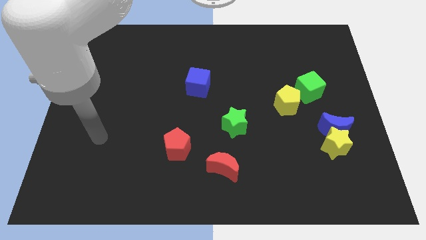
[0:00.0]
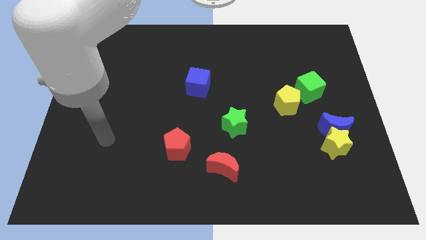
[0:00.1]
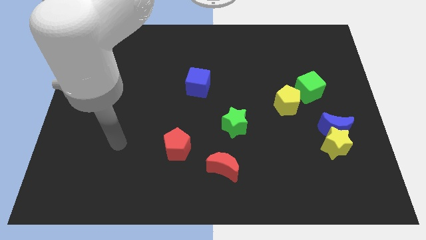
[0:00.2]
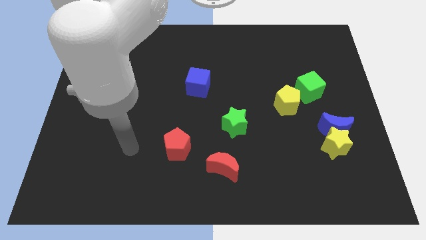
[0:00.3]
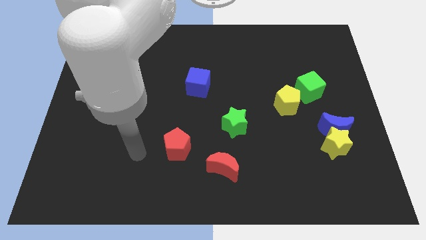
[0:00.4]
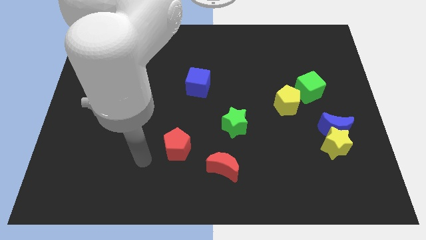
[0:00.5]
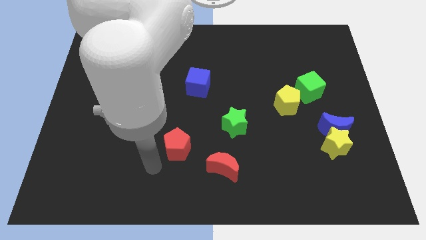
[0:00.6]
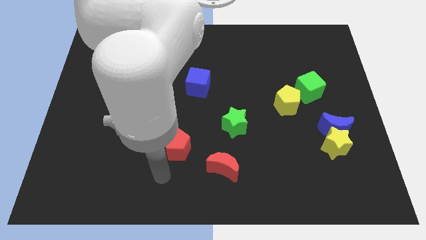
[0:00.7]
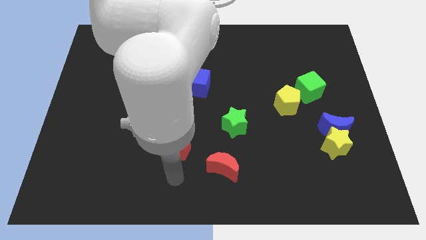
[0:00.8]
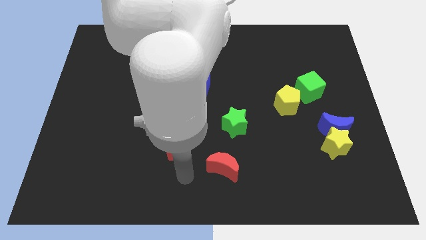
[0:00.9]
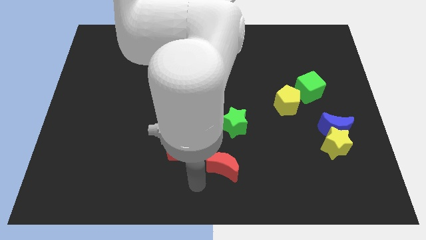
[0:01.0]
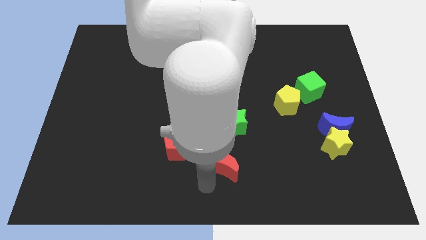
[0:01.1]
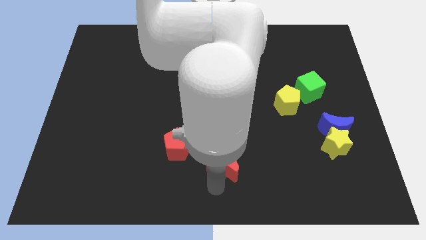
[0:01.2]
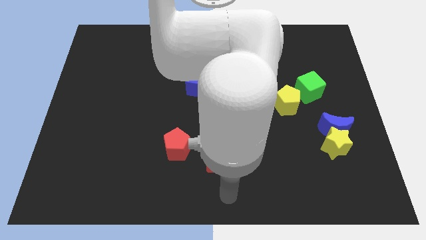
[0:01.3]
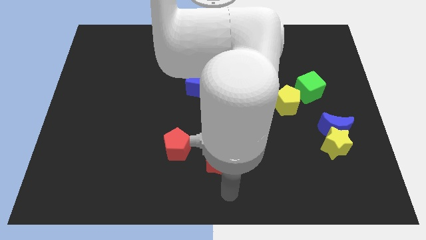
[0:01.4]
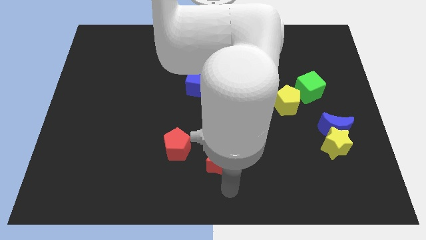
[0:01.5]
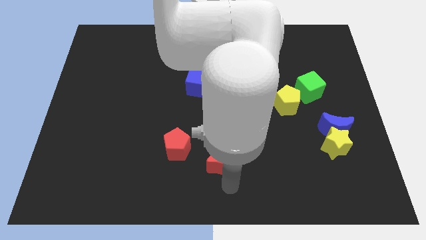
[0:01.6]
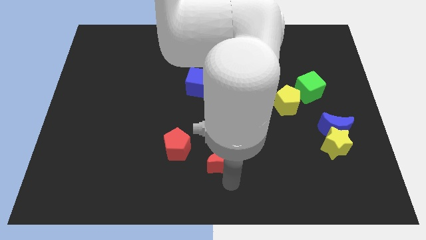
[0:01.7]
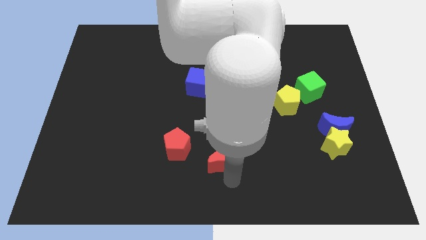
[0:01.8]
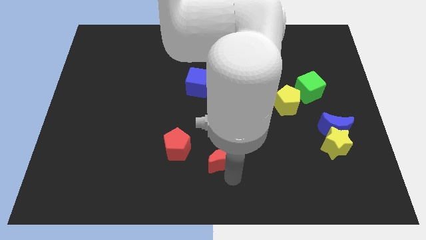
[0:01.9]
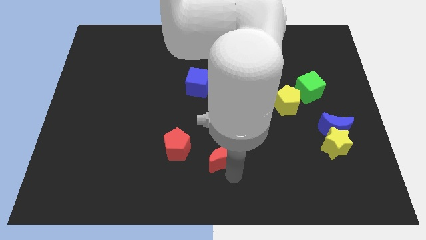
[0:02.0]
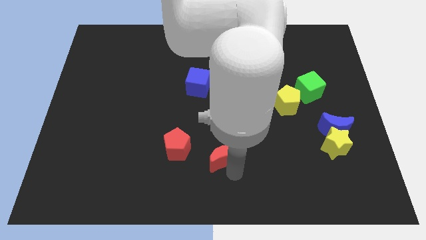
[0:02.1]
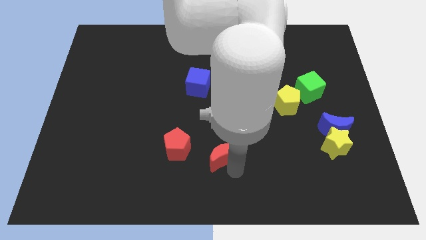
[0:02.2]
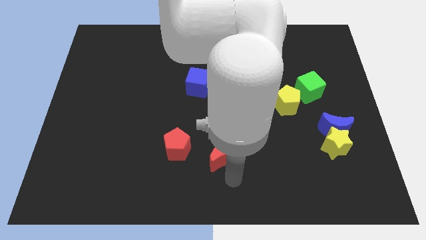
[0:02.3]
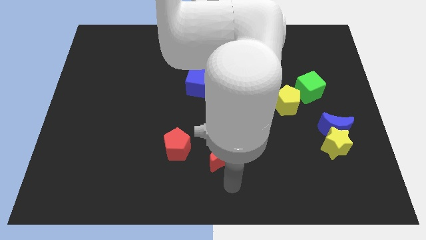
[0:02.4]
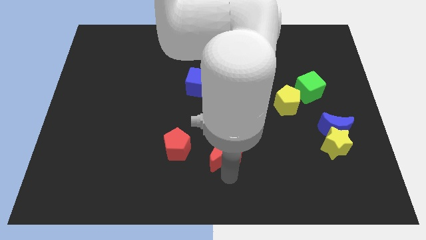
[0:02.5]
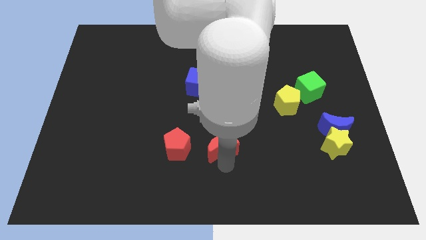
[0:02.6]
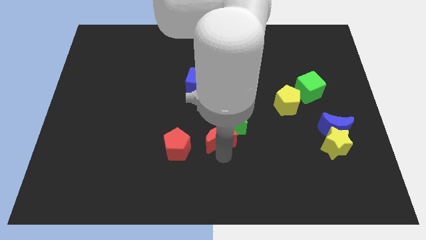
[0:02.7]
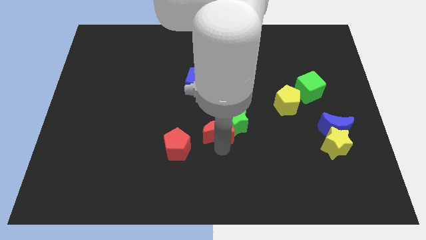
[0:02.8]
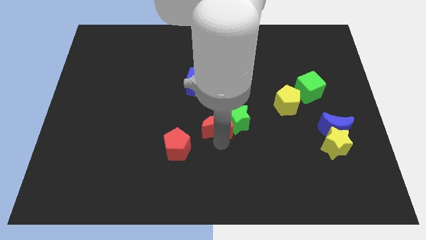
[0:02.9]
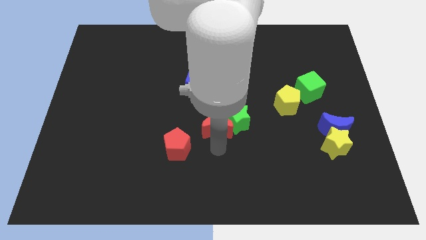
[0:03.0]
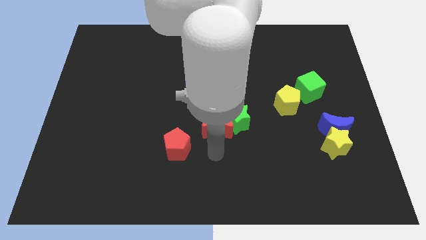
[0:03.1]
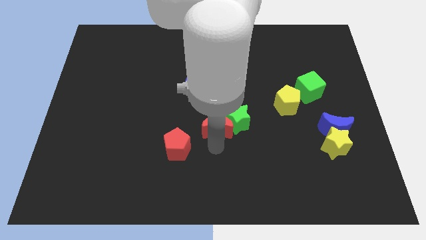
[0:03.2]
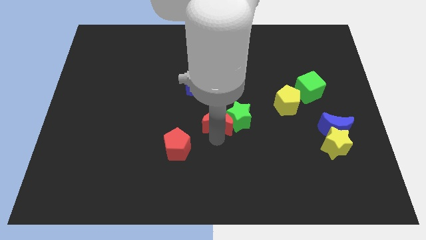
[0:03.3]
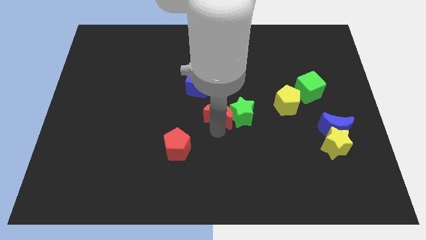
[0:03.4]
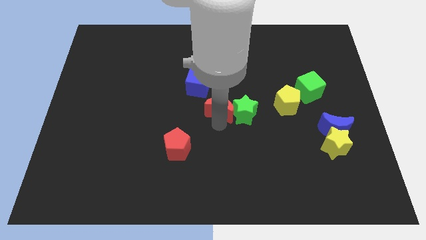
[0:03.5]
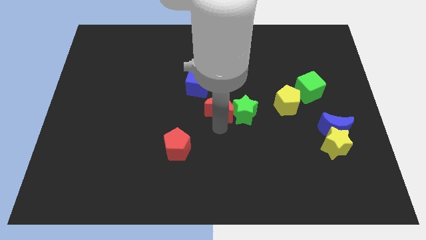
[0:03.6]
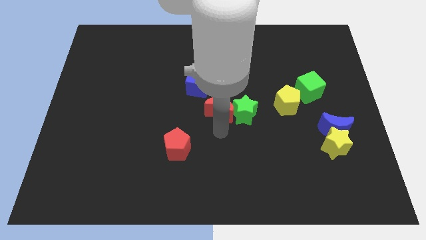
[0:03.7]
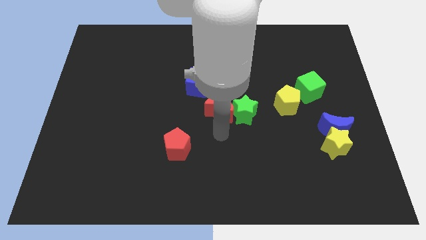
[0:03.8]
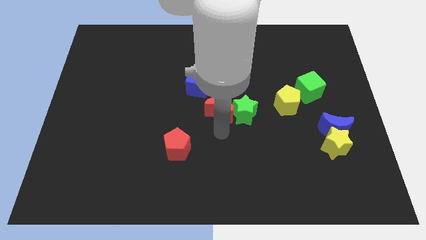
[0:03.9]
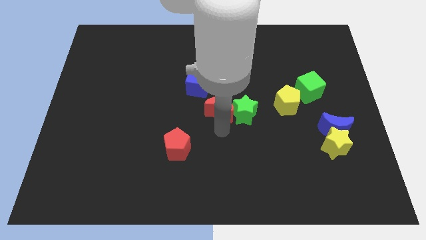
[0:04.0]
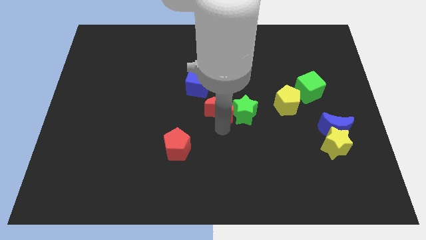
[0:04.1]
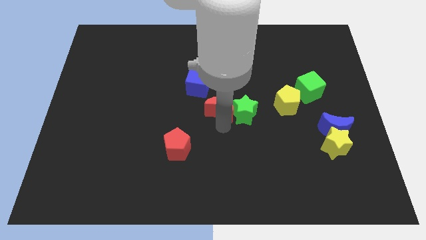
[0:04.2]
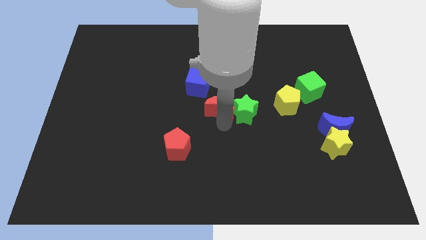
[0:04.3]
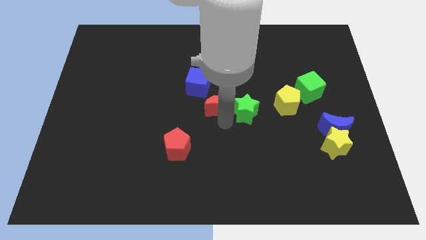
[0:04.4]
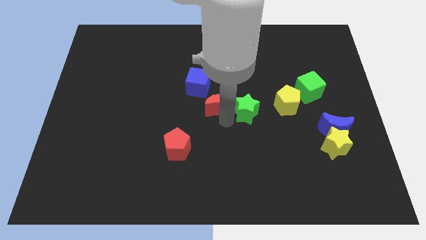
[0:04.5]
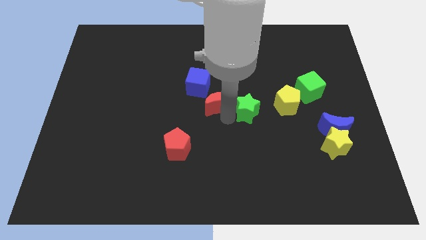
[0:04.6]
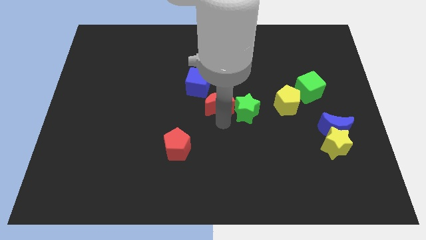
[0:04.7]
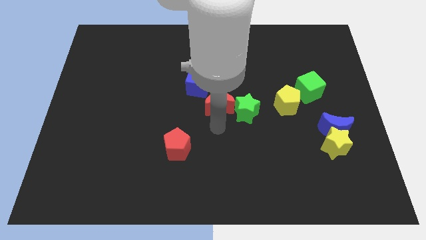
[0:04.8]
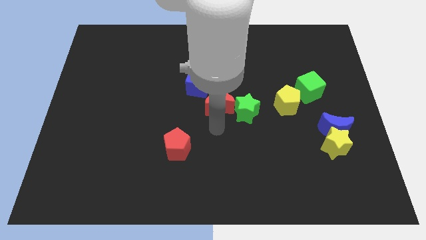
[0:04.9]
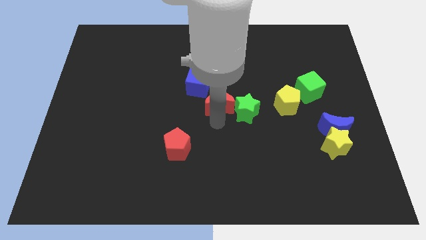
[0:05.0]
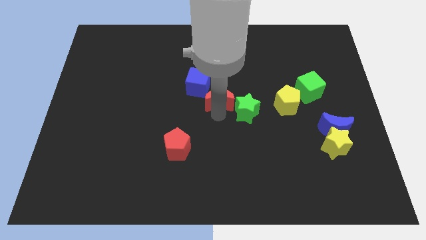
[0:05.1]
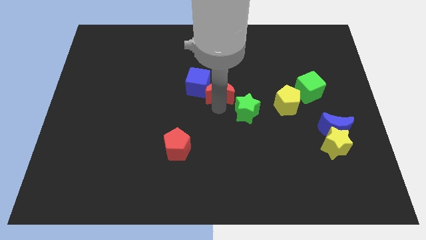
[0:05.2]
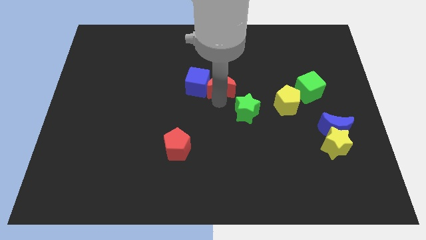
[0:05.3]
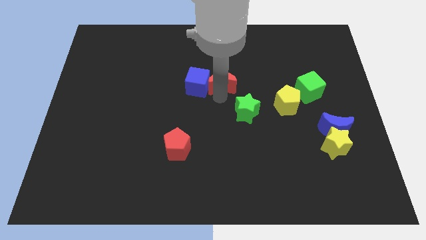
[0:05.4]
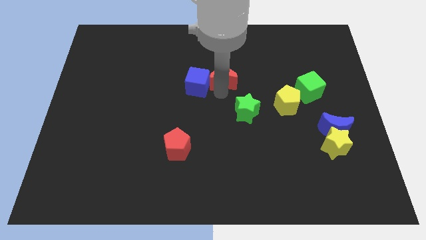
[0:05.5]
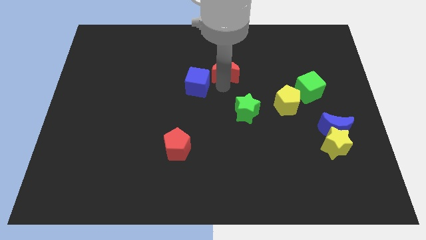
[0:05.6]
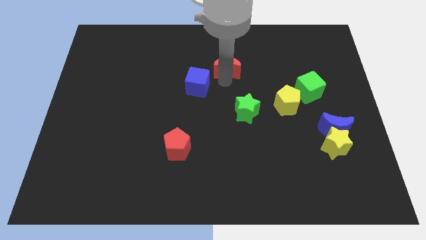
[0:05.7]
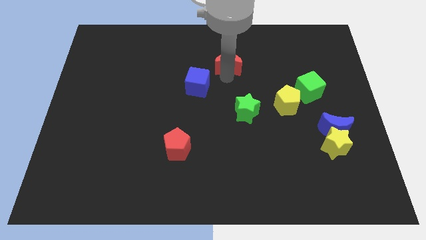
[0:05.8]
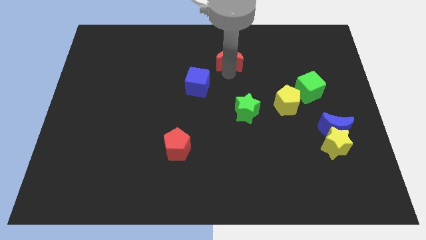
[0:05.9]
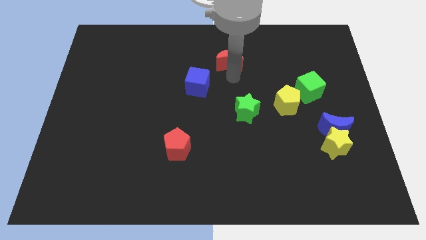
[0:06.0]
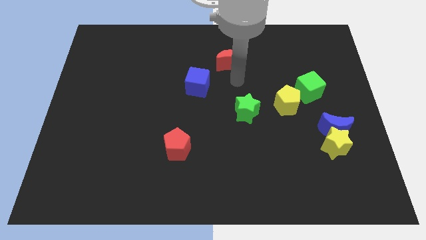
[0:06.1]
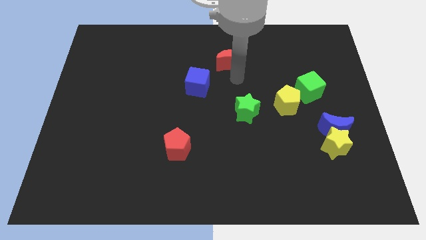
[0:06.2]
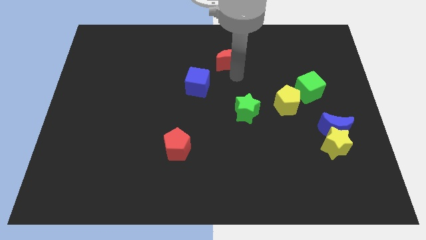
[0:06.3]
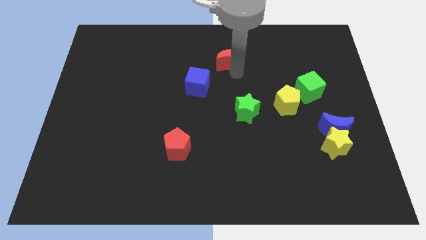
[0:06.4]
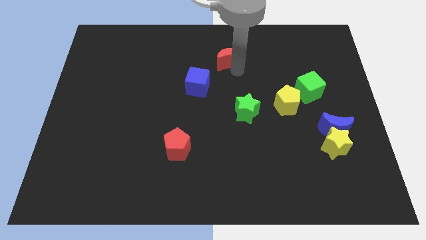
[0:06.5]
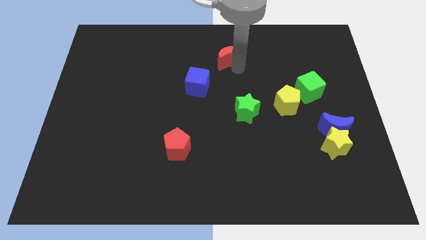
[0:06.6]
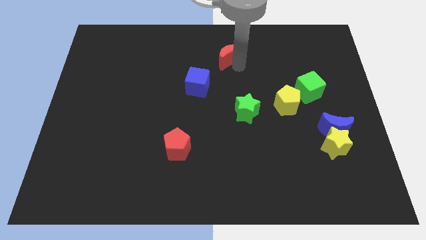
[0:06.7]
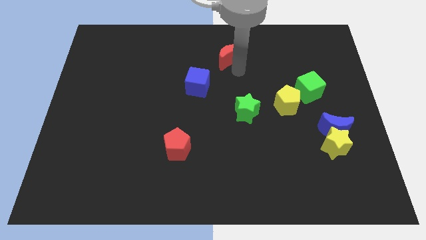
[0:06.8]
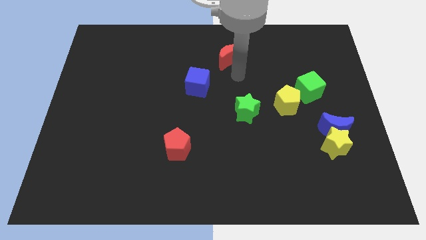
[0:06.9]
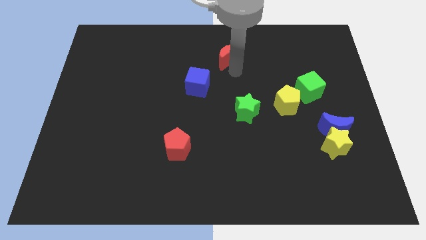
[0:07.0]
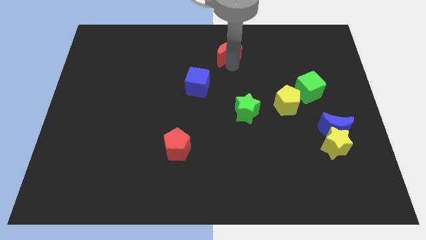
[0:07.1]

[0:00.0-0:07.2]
put the red moon to the top
